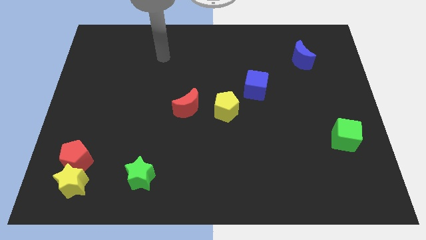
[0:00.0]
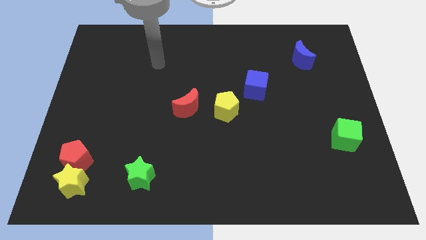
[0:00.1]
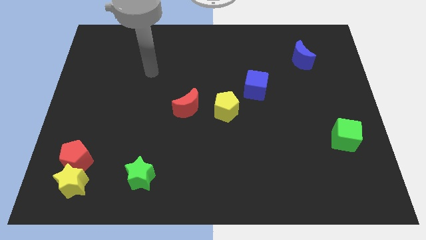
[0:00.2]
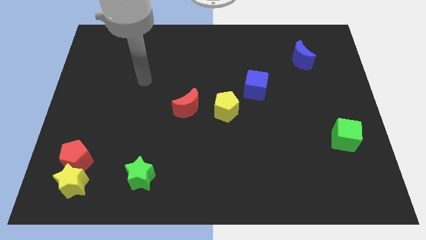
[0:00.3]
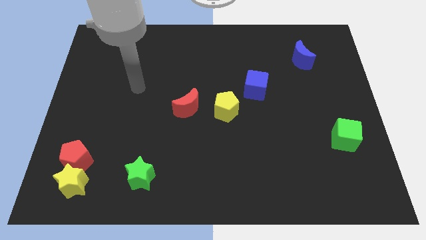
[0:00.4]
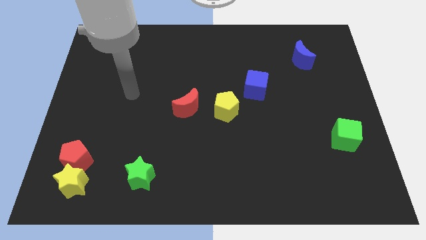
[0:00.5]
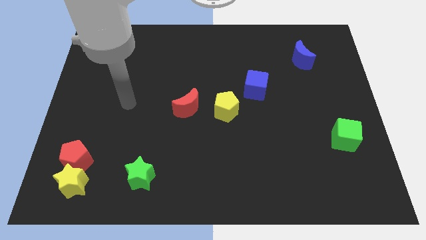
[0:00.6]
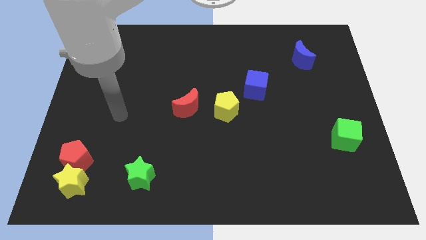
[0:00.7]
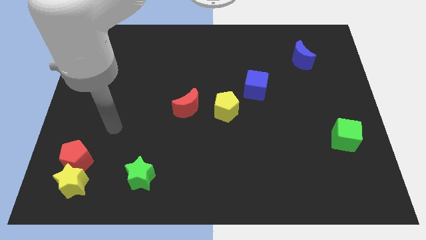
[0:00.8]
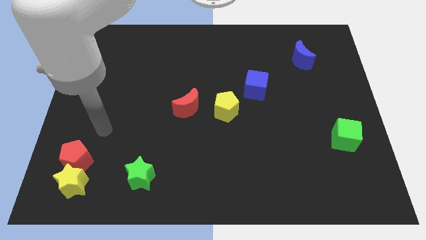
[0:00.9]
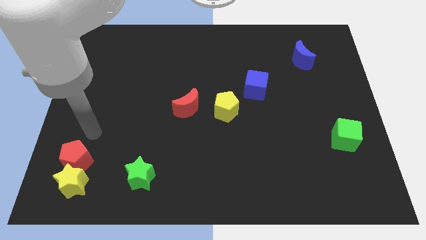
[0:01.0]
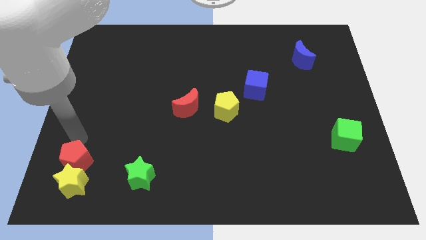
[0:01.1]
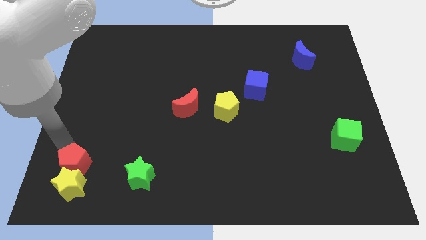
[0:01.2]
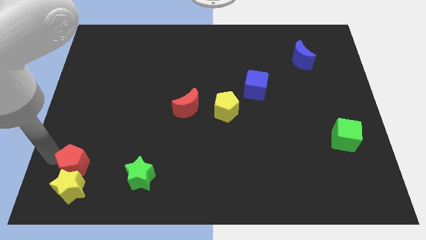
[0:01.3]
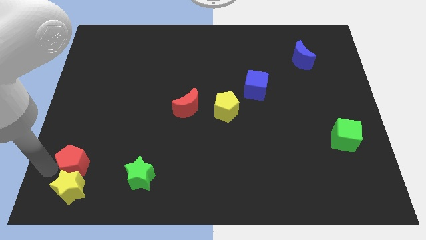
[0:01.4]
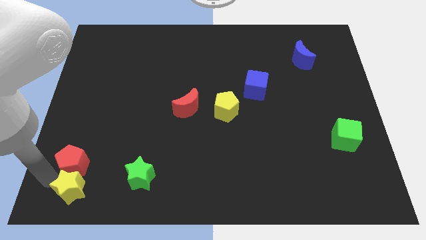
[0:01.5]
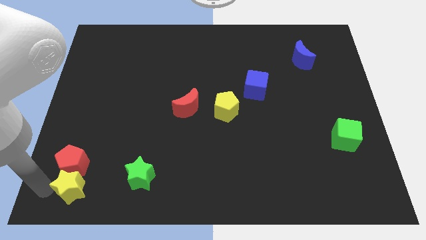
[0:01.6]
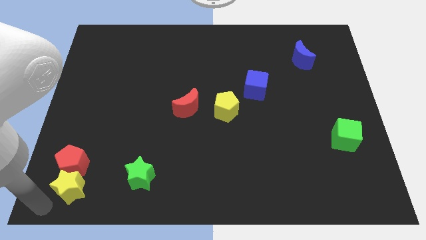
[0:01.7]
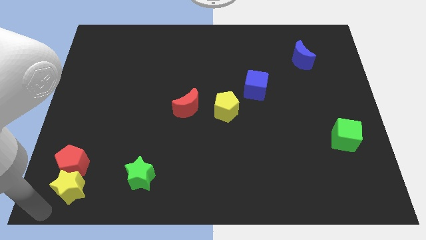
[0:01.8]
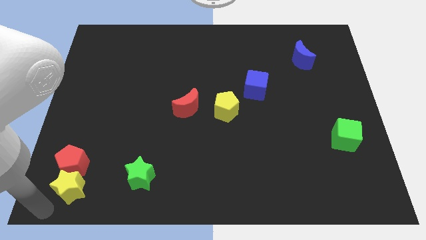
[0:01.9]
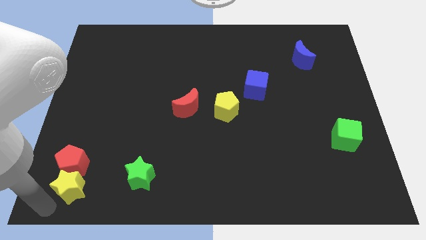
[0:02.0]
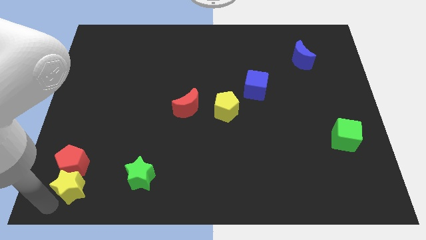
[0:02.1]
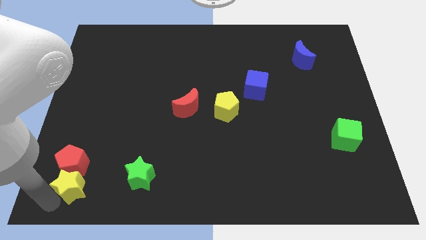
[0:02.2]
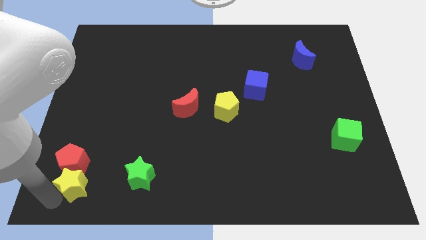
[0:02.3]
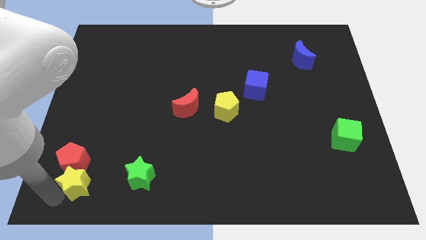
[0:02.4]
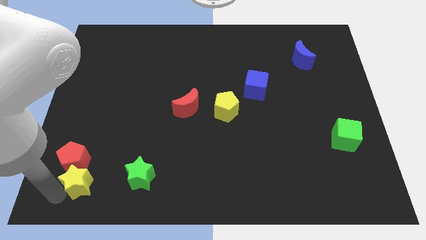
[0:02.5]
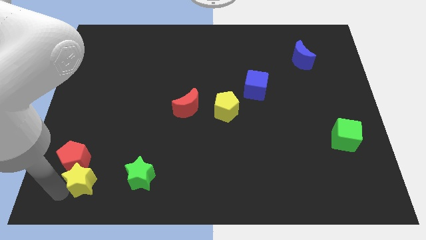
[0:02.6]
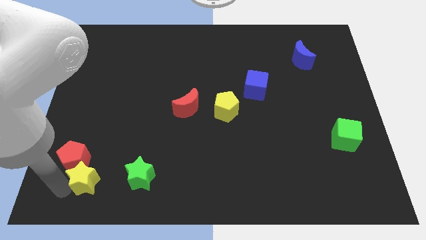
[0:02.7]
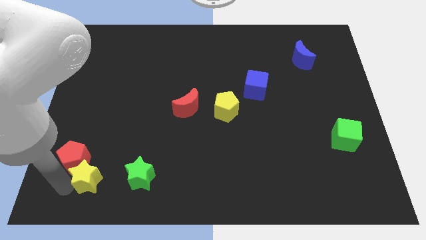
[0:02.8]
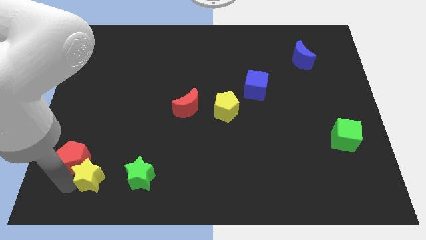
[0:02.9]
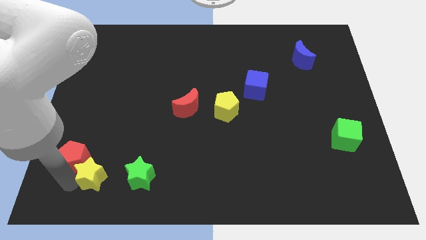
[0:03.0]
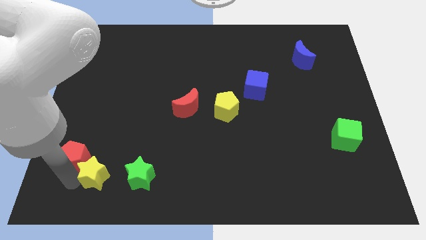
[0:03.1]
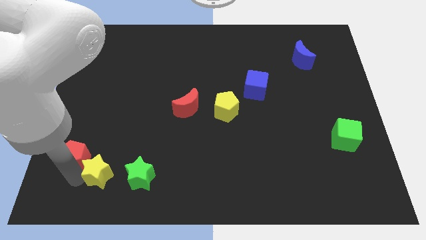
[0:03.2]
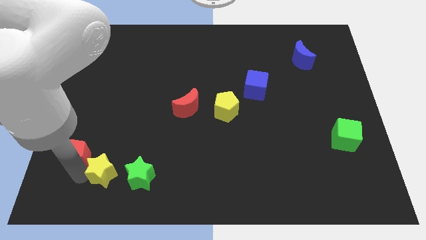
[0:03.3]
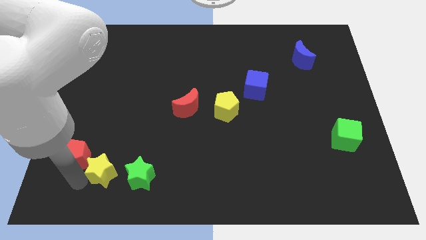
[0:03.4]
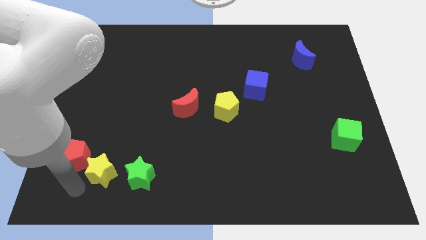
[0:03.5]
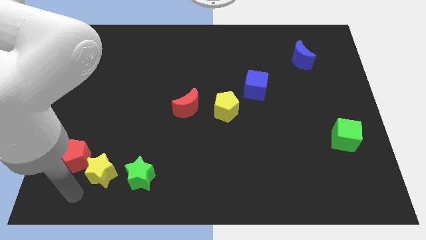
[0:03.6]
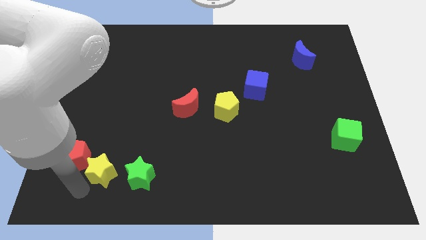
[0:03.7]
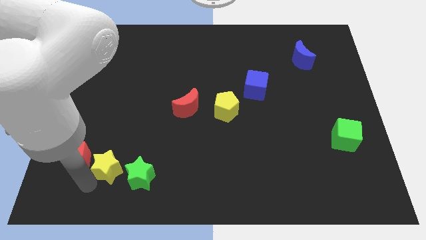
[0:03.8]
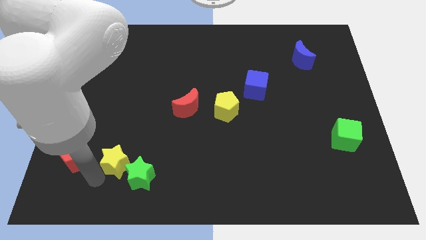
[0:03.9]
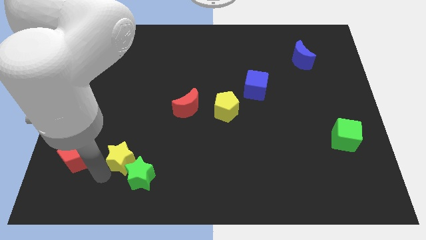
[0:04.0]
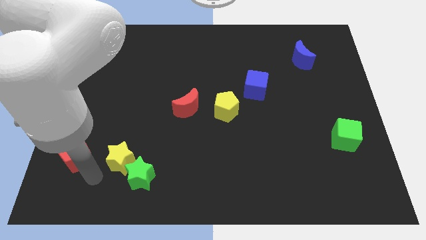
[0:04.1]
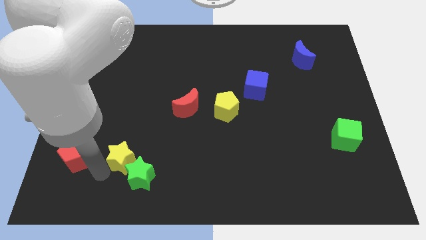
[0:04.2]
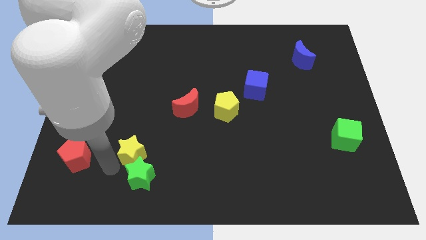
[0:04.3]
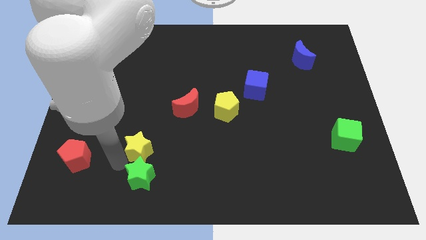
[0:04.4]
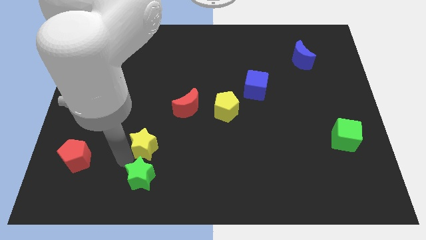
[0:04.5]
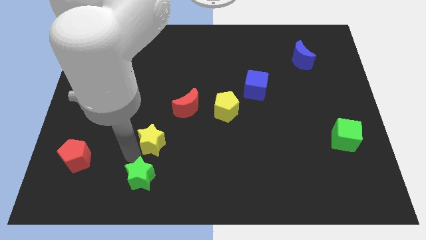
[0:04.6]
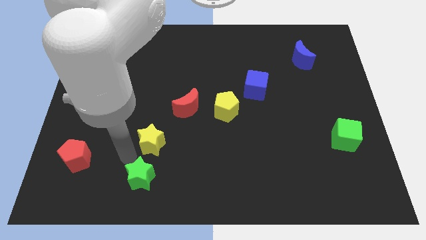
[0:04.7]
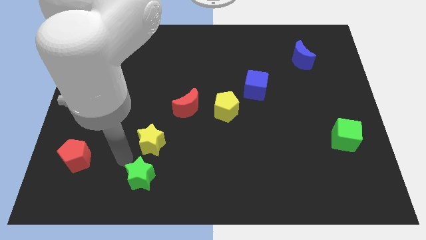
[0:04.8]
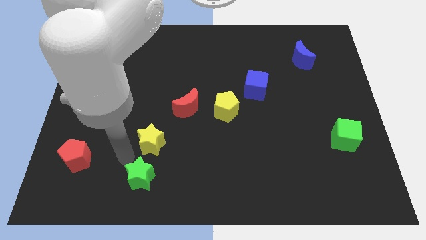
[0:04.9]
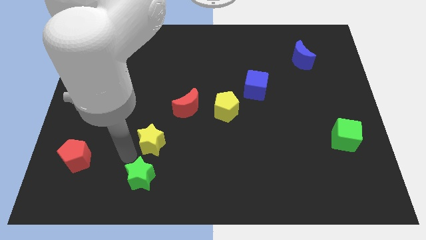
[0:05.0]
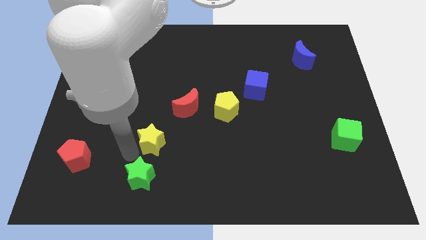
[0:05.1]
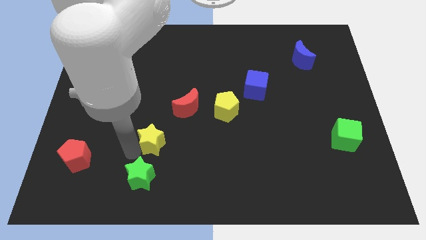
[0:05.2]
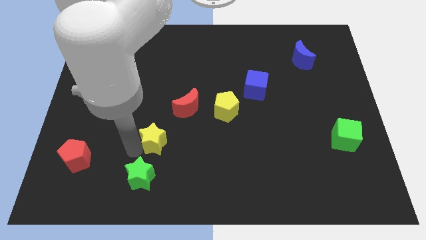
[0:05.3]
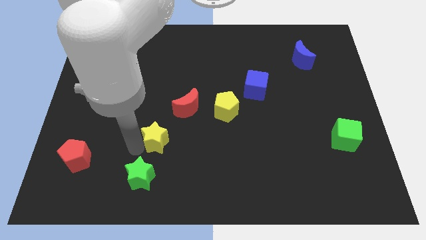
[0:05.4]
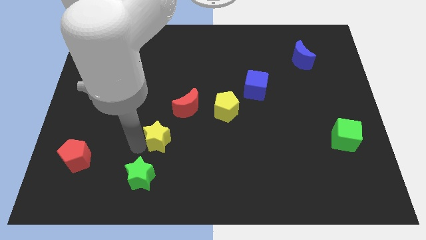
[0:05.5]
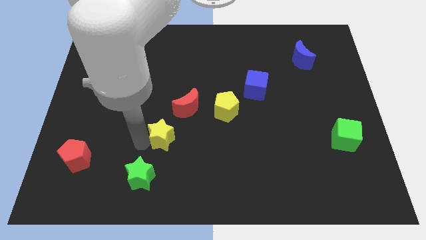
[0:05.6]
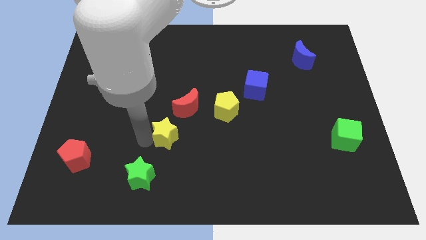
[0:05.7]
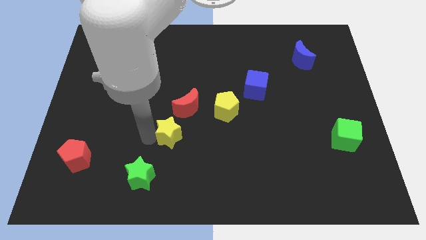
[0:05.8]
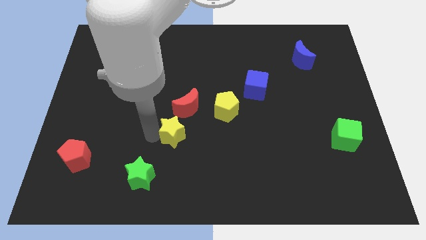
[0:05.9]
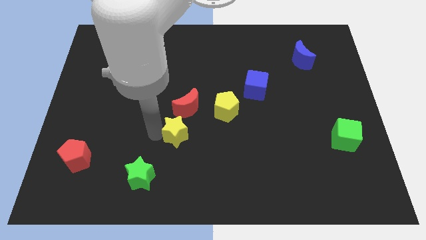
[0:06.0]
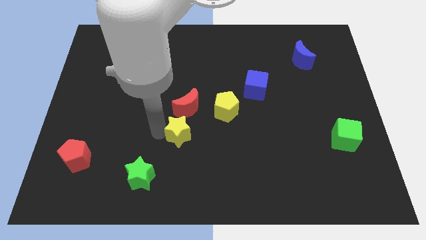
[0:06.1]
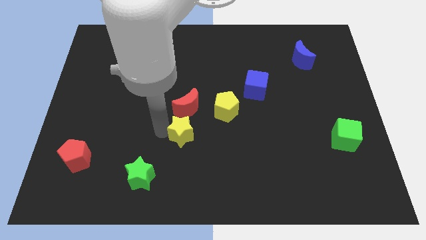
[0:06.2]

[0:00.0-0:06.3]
move the yellow star to the bottom left of the yellow pentagon

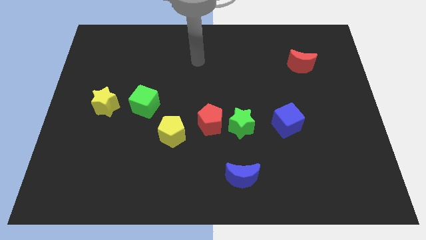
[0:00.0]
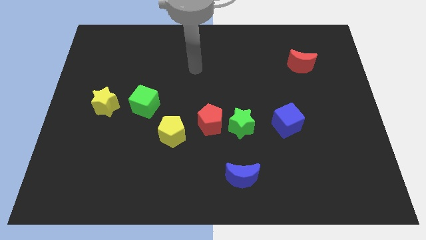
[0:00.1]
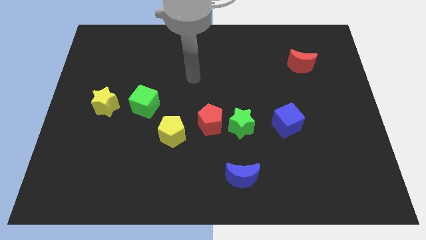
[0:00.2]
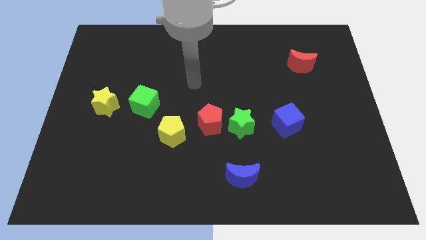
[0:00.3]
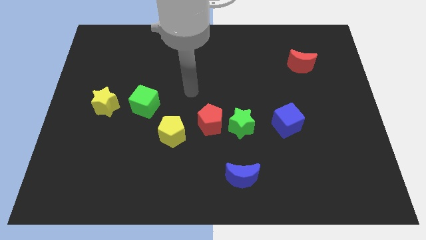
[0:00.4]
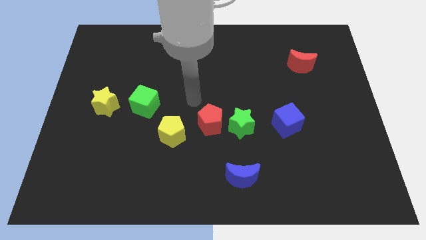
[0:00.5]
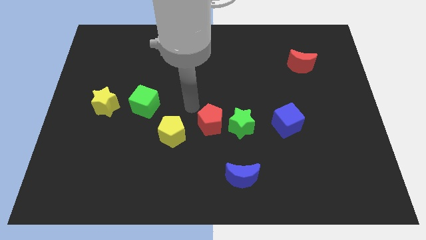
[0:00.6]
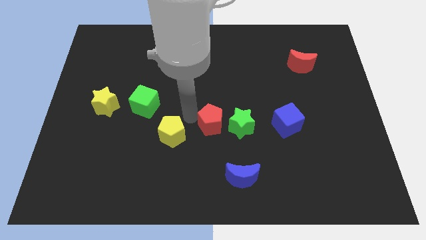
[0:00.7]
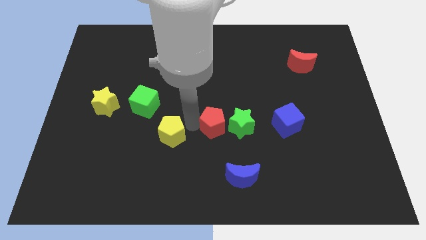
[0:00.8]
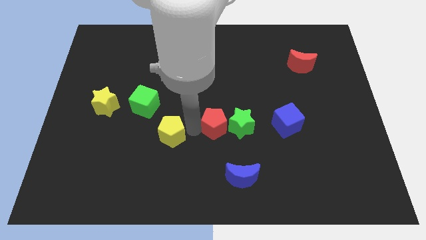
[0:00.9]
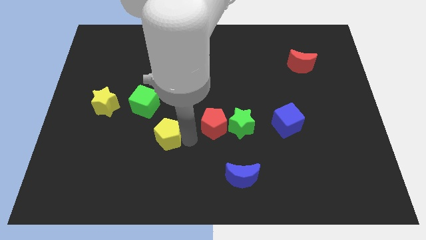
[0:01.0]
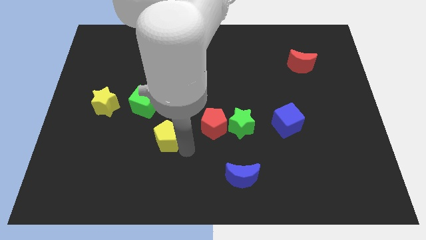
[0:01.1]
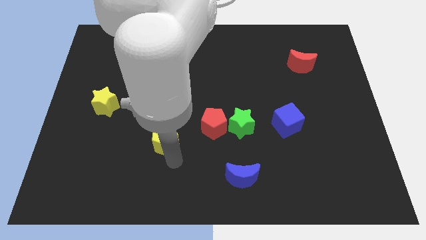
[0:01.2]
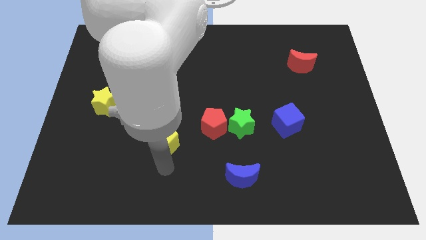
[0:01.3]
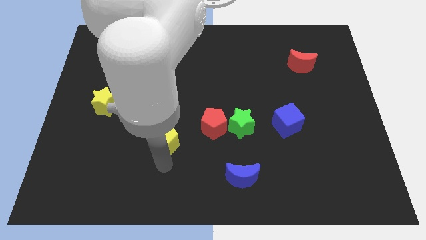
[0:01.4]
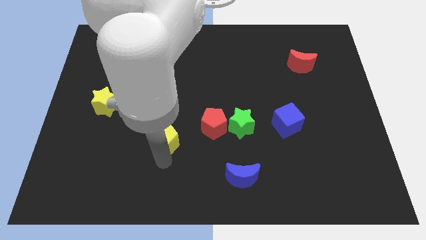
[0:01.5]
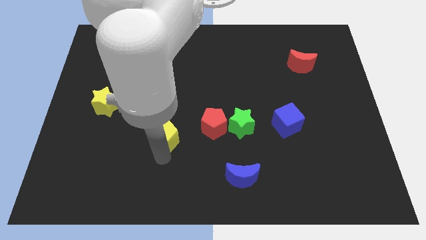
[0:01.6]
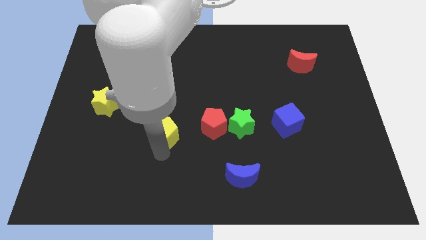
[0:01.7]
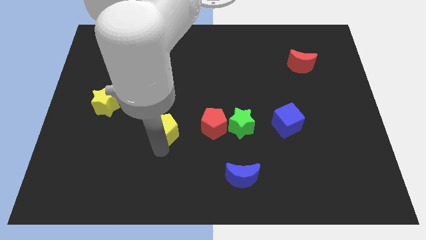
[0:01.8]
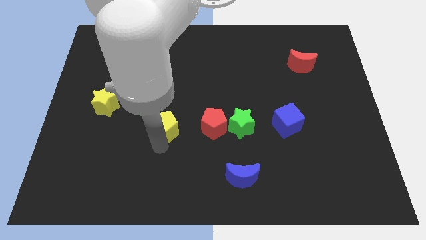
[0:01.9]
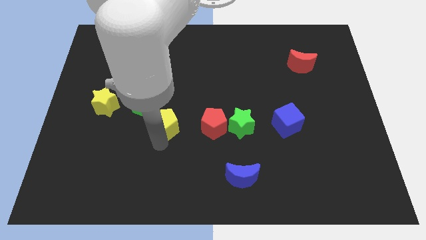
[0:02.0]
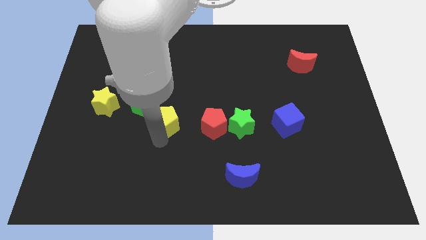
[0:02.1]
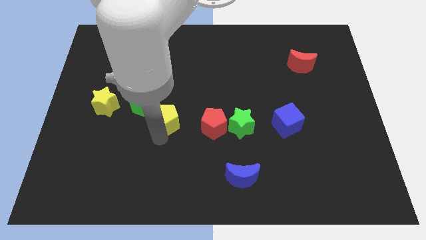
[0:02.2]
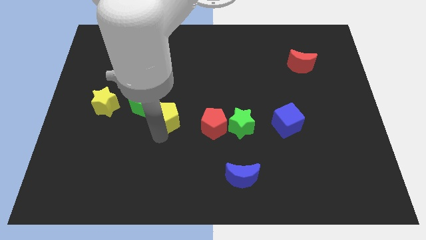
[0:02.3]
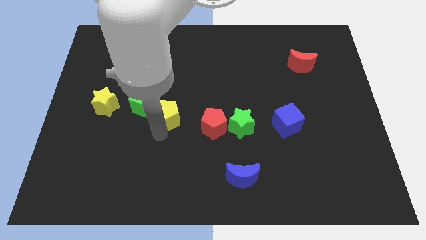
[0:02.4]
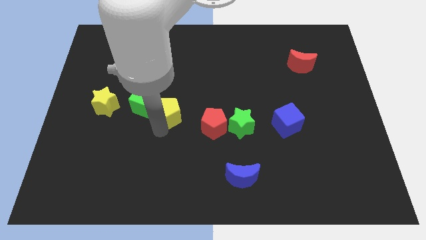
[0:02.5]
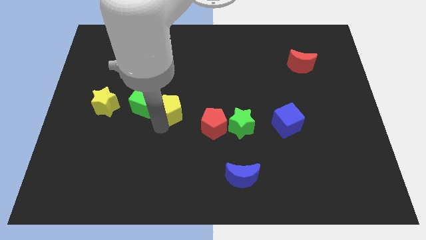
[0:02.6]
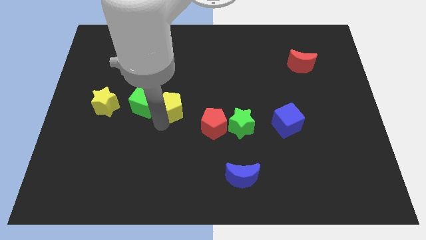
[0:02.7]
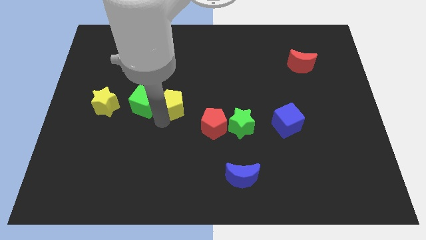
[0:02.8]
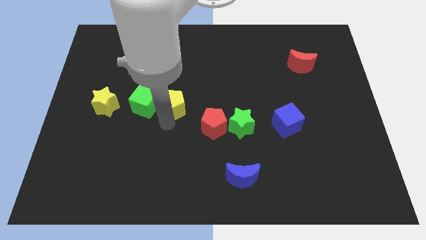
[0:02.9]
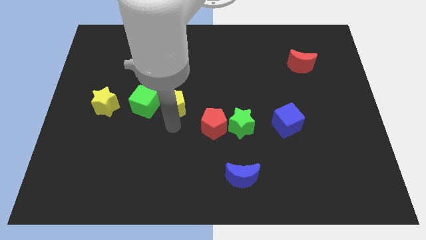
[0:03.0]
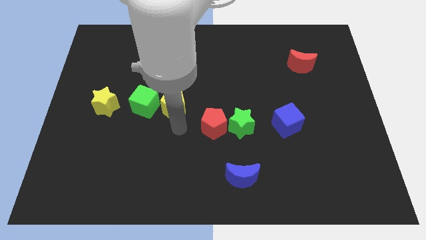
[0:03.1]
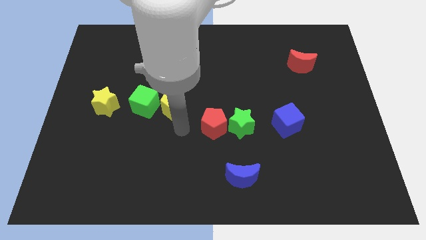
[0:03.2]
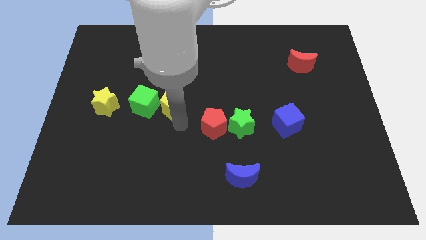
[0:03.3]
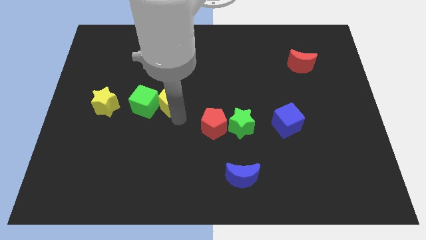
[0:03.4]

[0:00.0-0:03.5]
slide the yellow pentagon diagonally up and to the right of the green cube
